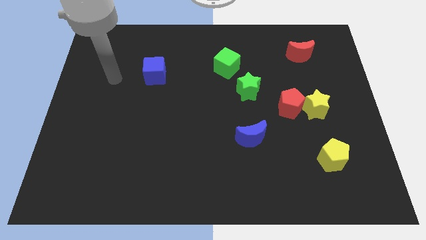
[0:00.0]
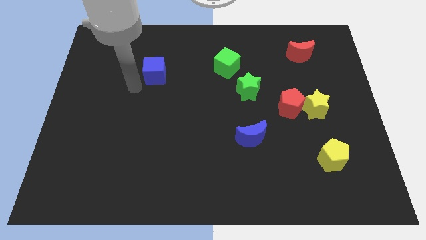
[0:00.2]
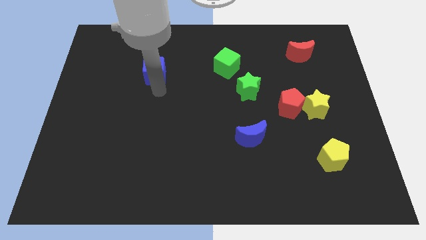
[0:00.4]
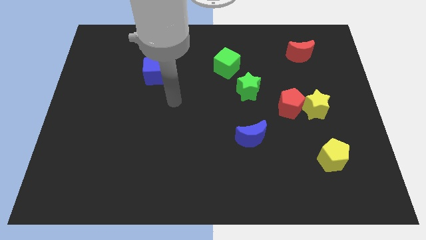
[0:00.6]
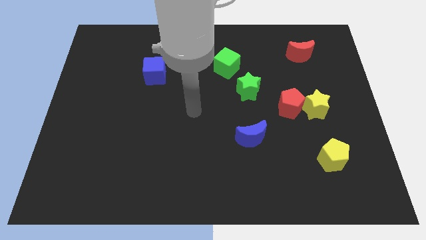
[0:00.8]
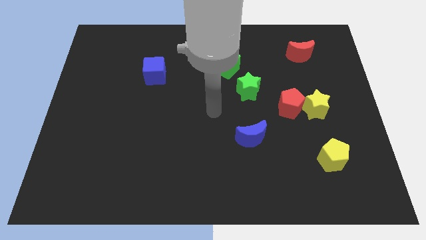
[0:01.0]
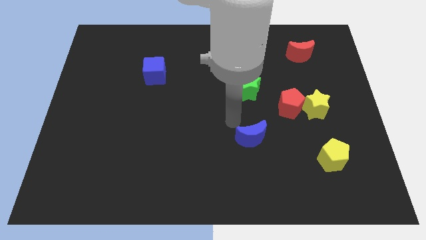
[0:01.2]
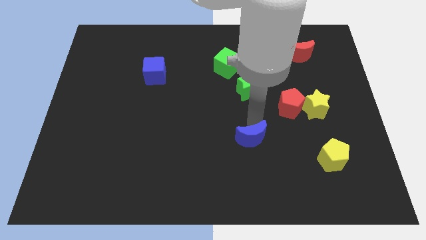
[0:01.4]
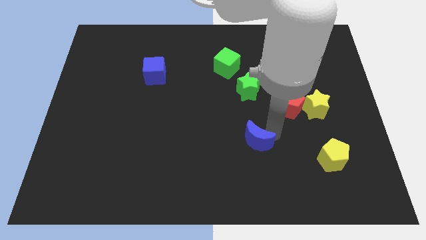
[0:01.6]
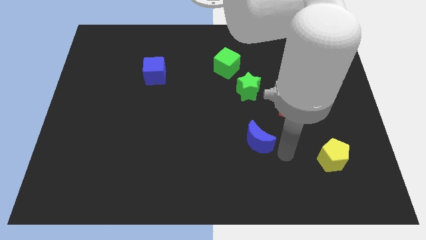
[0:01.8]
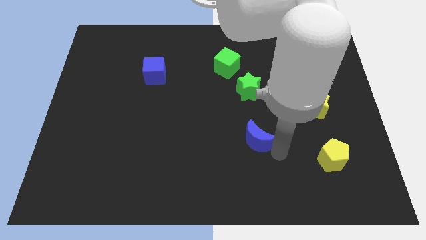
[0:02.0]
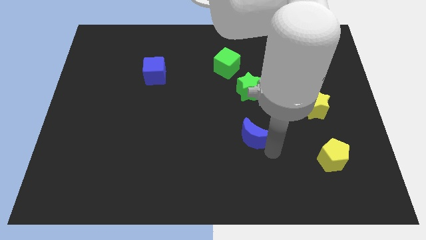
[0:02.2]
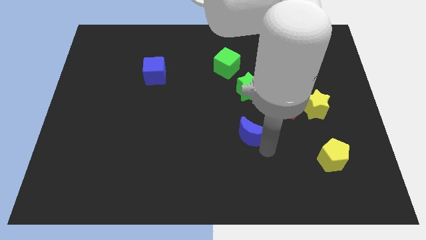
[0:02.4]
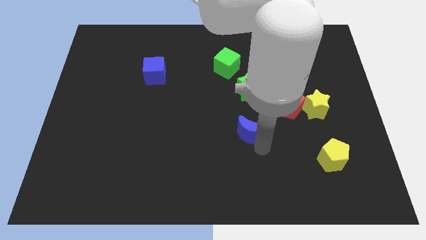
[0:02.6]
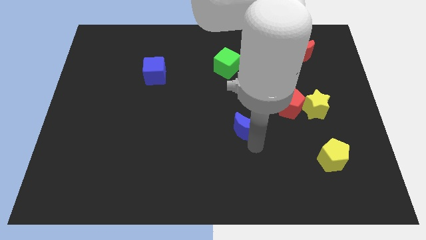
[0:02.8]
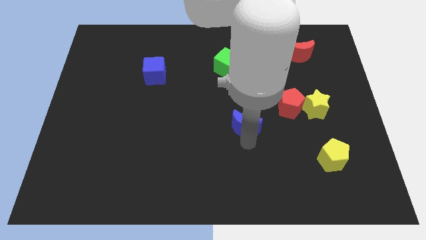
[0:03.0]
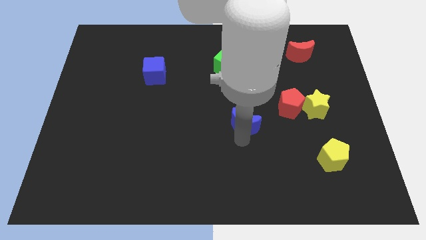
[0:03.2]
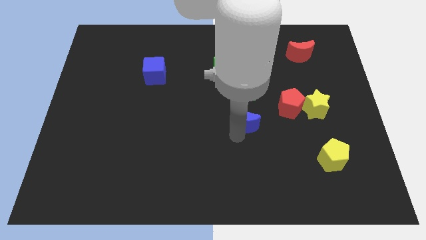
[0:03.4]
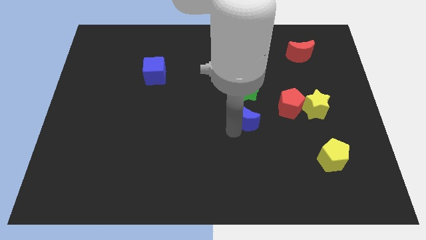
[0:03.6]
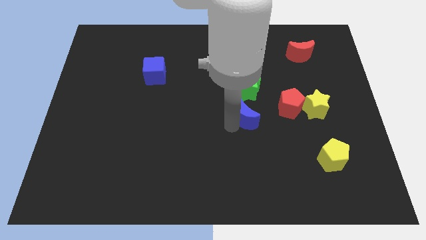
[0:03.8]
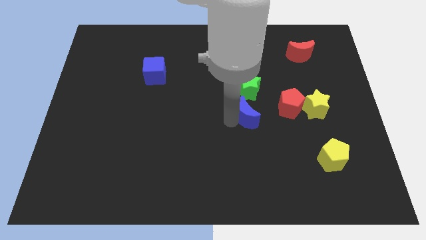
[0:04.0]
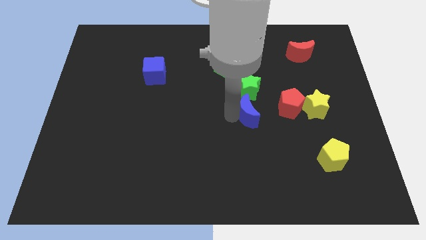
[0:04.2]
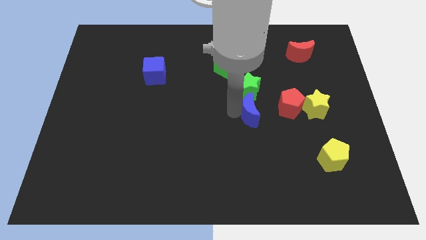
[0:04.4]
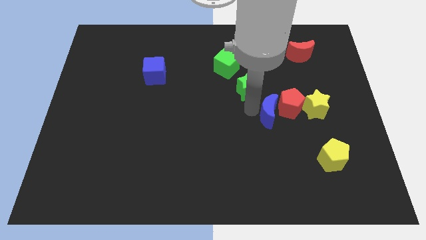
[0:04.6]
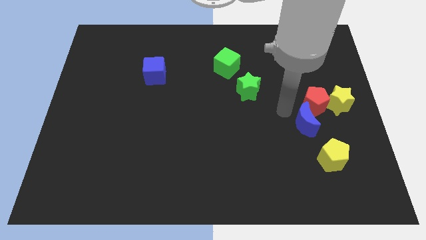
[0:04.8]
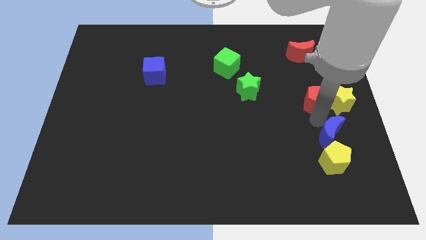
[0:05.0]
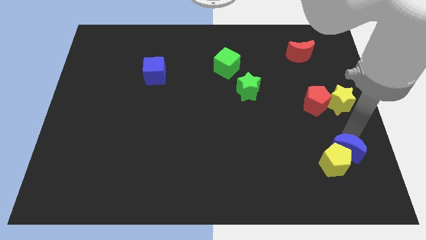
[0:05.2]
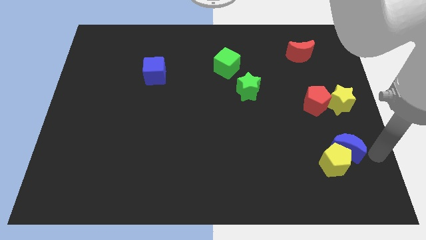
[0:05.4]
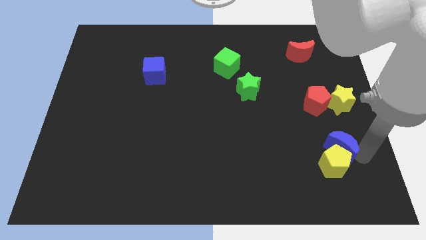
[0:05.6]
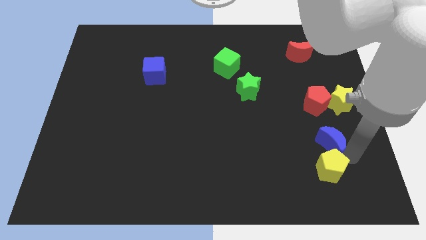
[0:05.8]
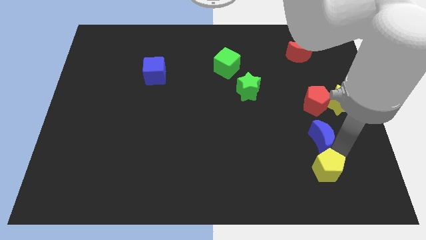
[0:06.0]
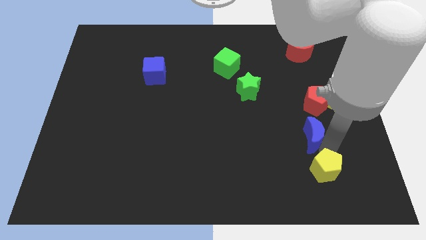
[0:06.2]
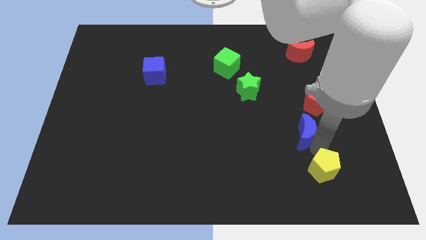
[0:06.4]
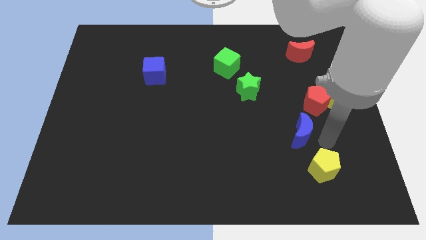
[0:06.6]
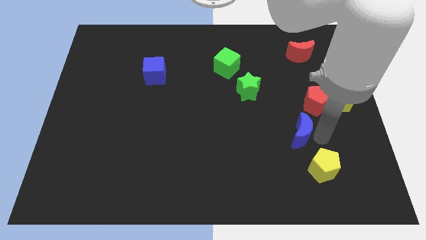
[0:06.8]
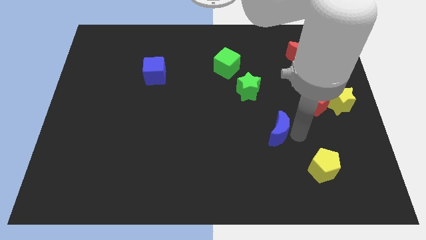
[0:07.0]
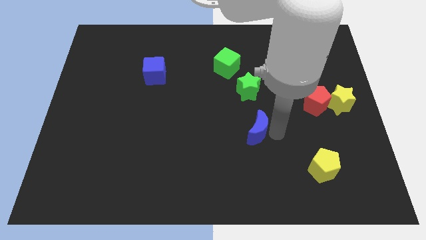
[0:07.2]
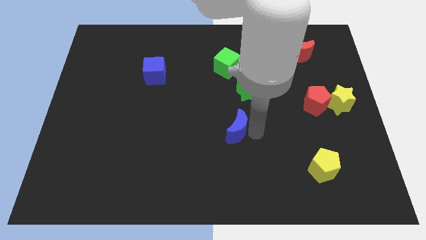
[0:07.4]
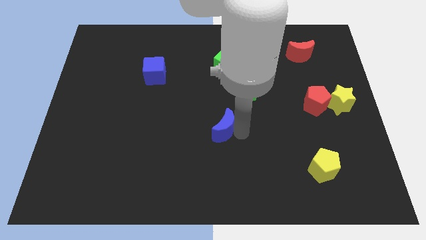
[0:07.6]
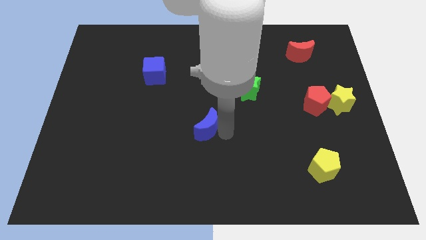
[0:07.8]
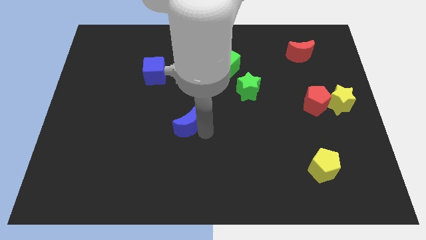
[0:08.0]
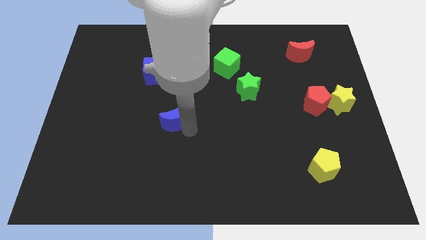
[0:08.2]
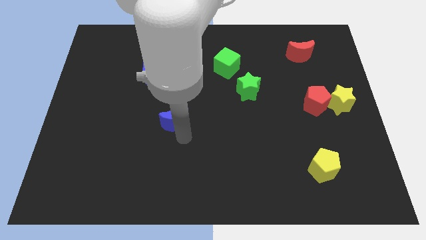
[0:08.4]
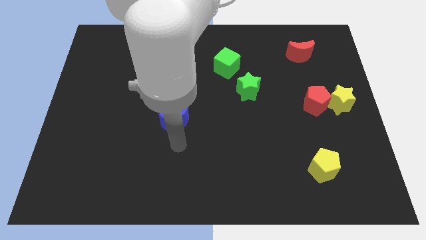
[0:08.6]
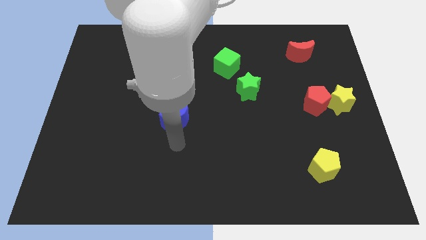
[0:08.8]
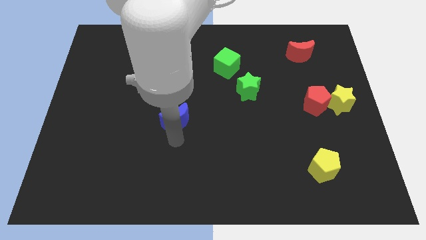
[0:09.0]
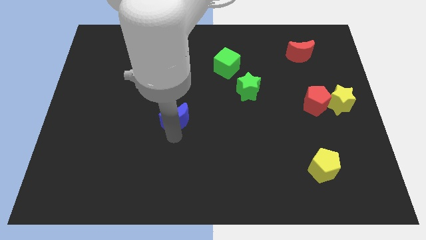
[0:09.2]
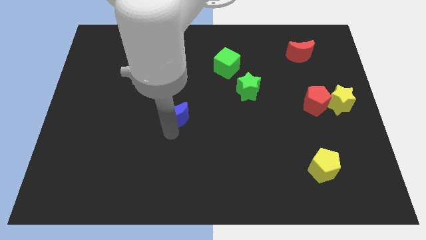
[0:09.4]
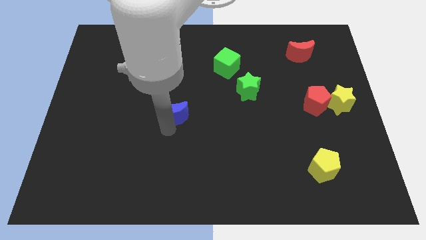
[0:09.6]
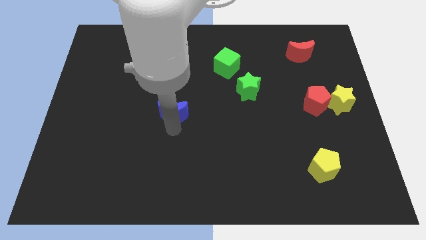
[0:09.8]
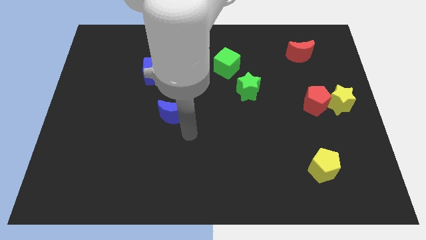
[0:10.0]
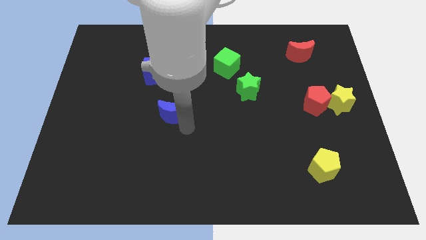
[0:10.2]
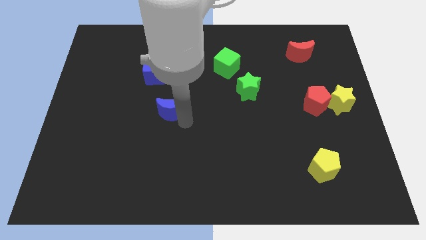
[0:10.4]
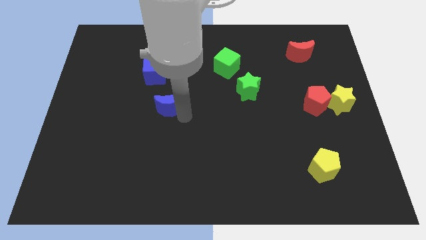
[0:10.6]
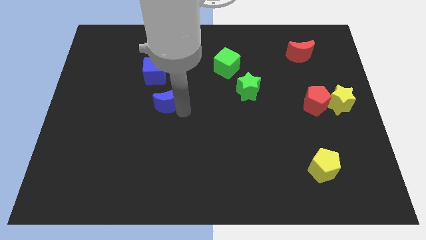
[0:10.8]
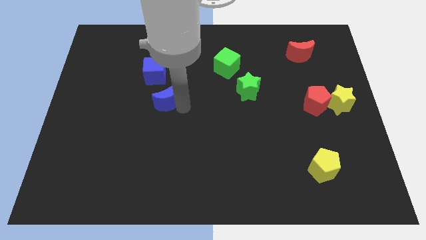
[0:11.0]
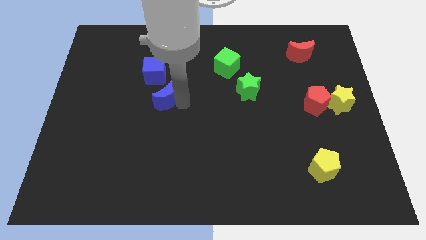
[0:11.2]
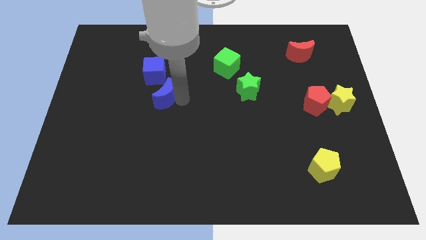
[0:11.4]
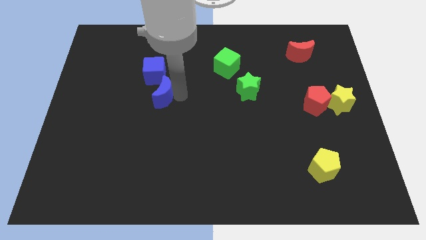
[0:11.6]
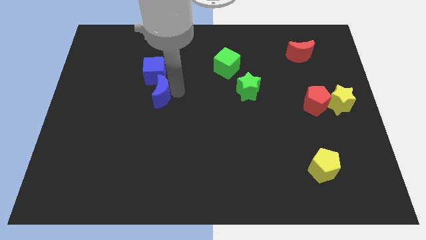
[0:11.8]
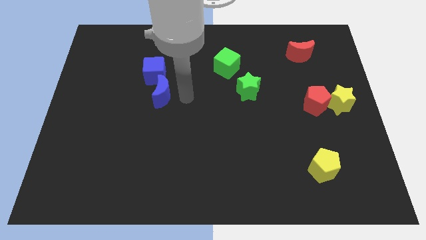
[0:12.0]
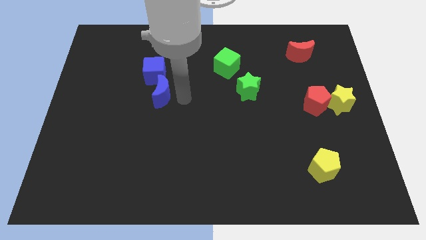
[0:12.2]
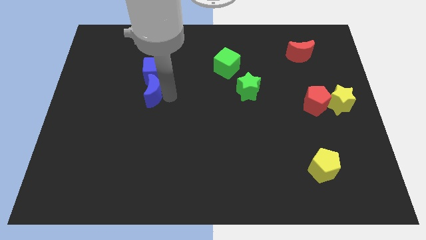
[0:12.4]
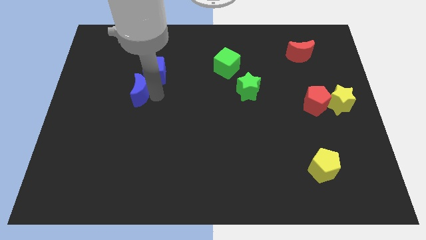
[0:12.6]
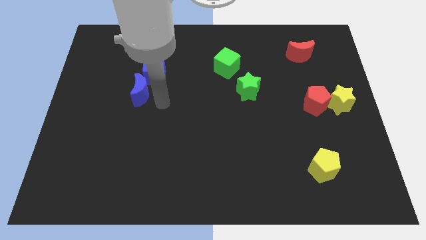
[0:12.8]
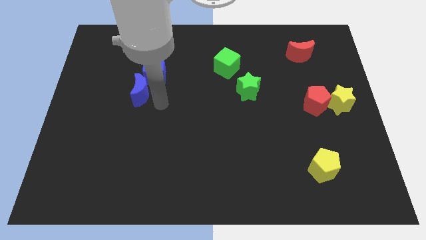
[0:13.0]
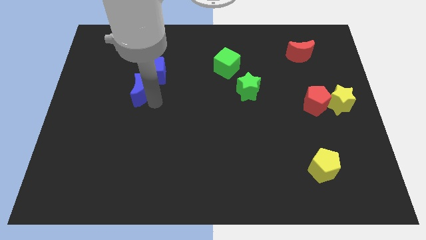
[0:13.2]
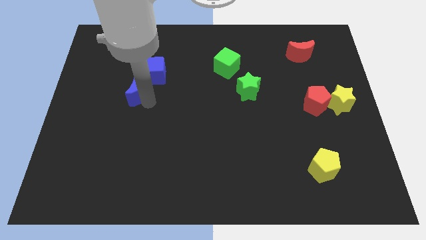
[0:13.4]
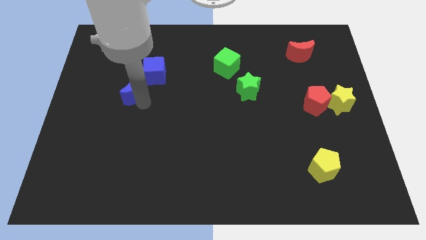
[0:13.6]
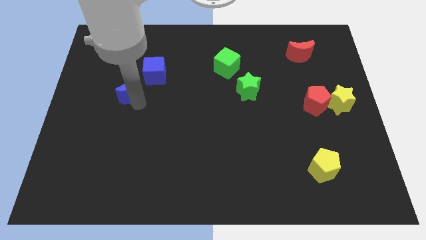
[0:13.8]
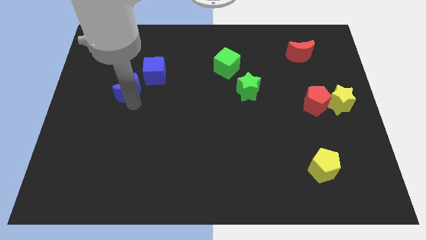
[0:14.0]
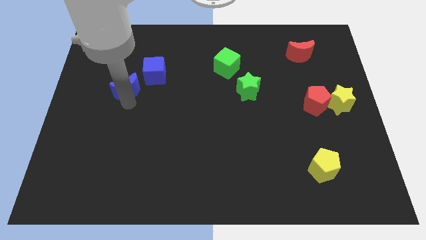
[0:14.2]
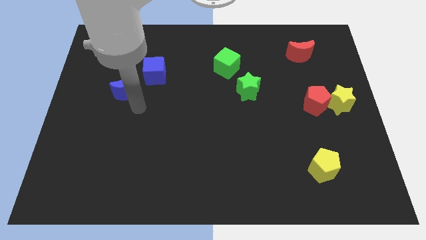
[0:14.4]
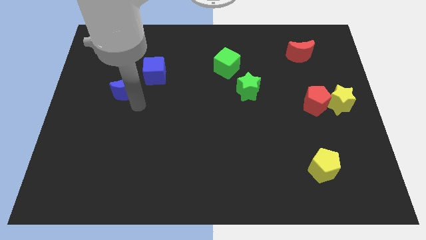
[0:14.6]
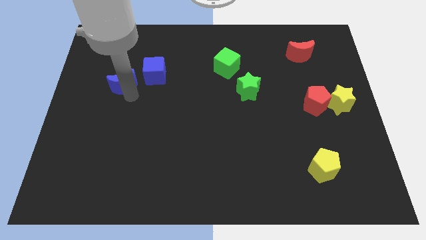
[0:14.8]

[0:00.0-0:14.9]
slide the blue moon left of the blue cube
